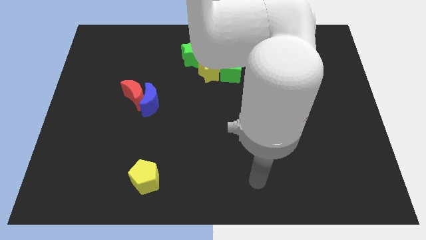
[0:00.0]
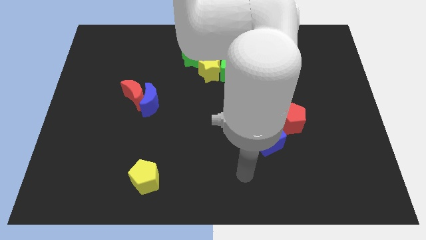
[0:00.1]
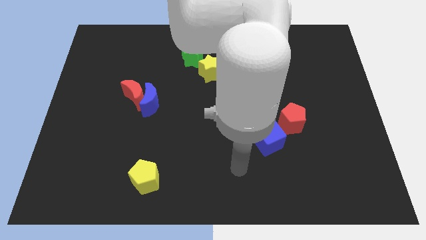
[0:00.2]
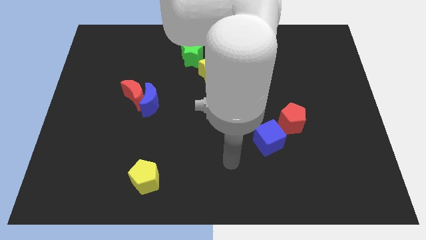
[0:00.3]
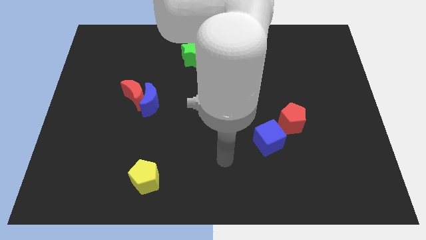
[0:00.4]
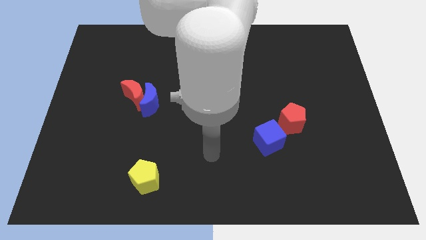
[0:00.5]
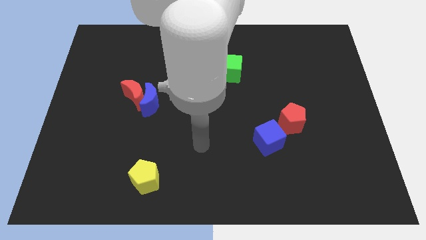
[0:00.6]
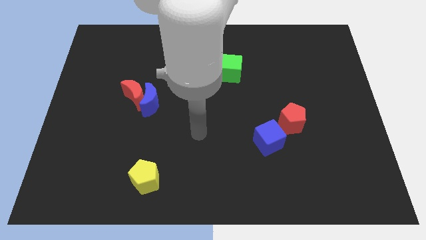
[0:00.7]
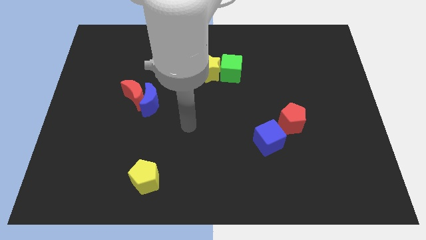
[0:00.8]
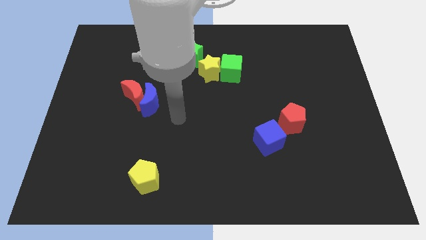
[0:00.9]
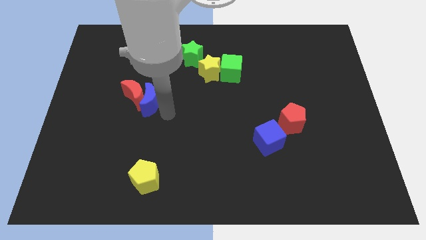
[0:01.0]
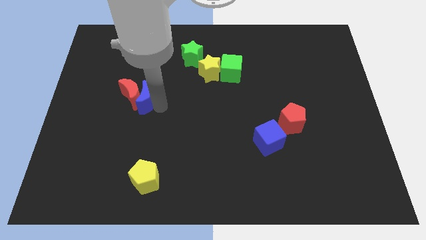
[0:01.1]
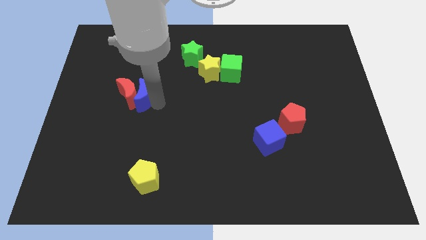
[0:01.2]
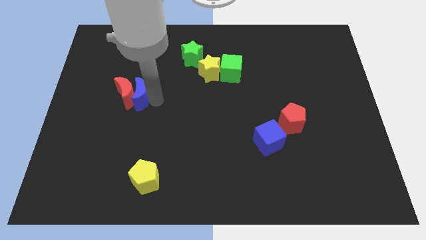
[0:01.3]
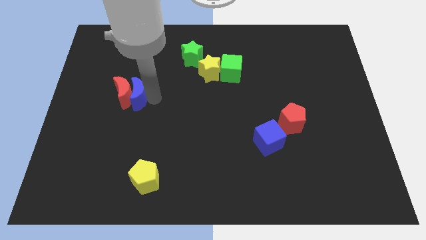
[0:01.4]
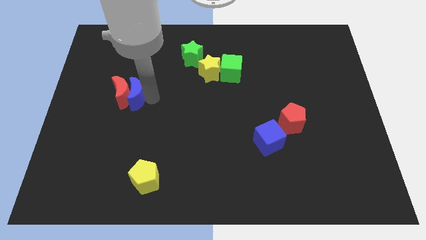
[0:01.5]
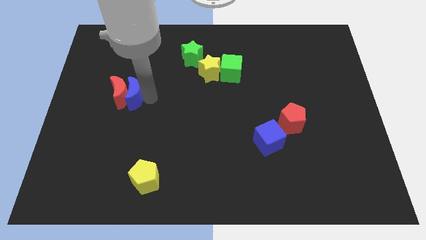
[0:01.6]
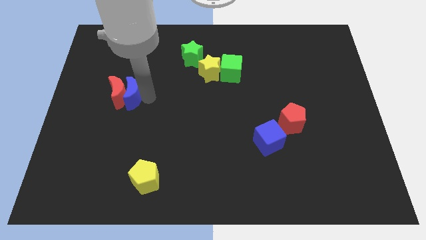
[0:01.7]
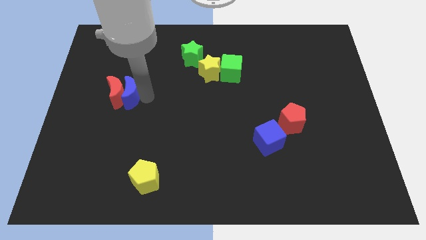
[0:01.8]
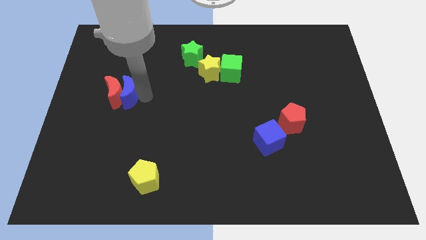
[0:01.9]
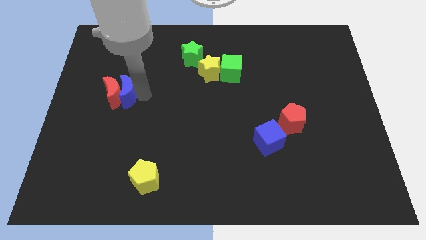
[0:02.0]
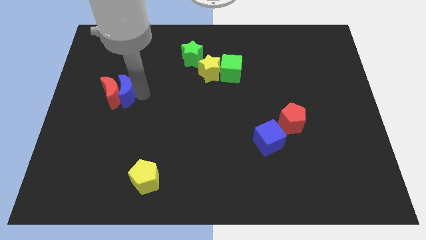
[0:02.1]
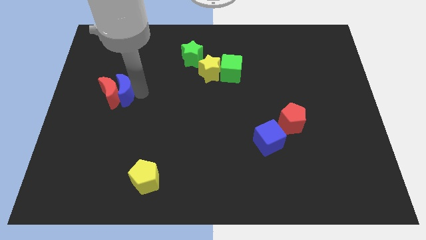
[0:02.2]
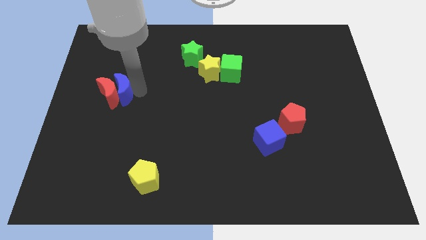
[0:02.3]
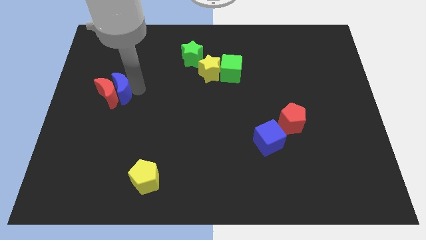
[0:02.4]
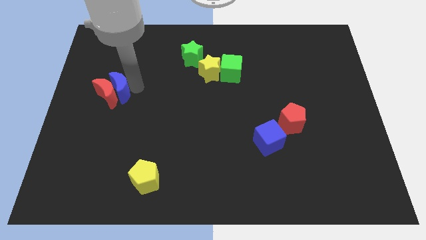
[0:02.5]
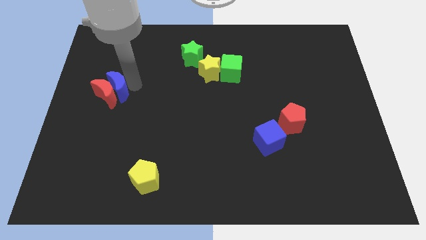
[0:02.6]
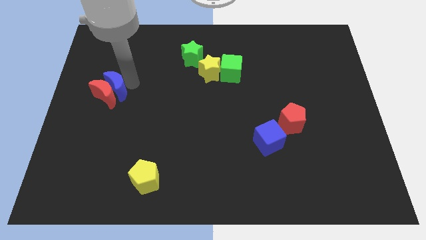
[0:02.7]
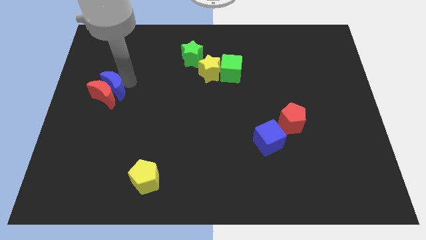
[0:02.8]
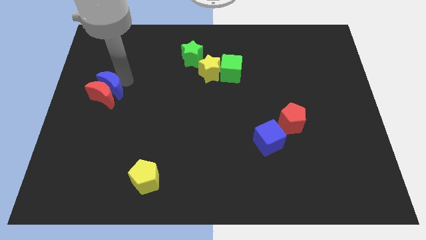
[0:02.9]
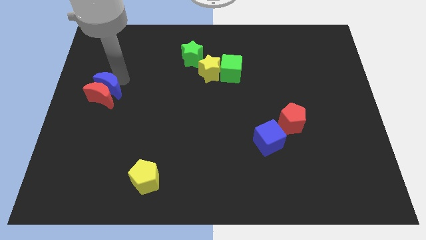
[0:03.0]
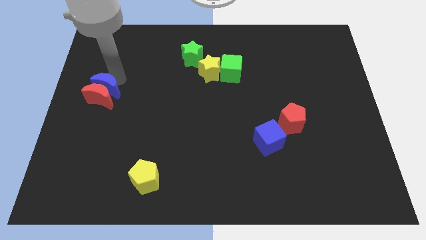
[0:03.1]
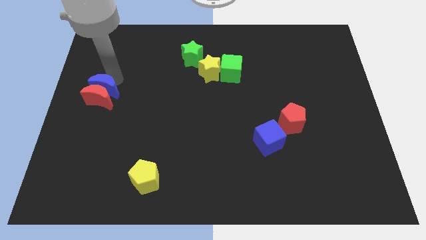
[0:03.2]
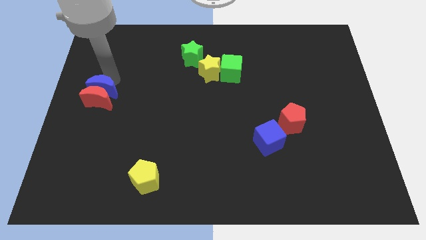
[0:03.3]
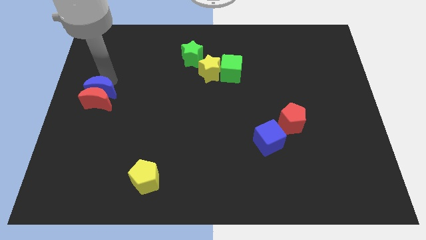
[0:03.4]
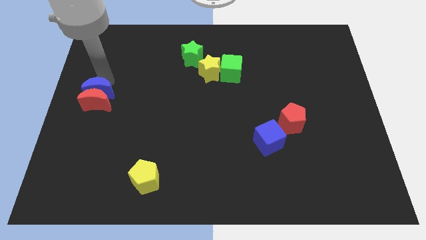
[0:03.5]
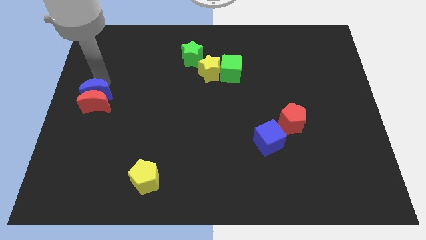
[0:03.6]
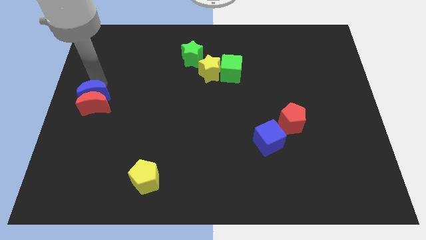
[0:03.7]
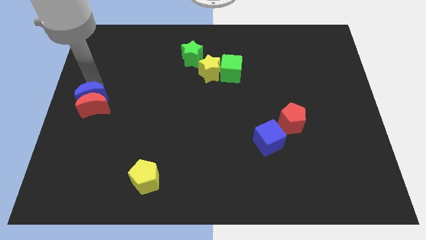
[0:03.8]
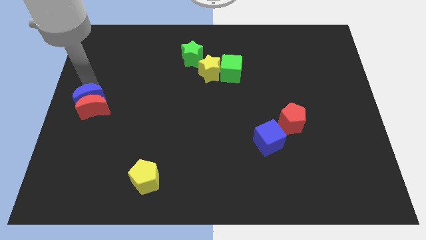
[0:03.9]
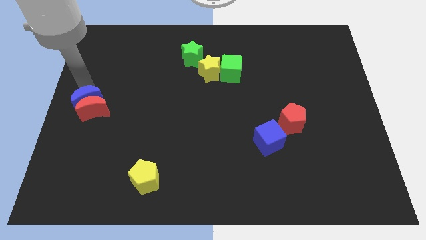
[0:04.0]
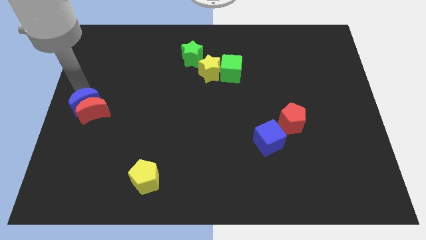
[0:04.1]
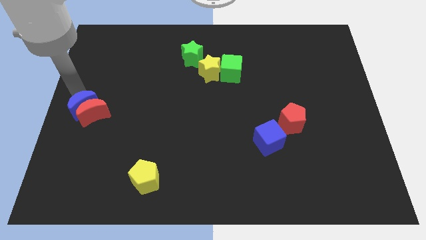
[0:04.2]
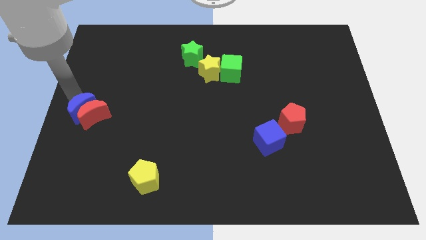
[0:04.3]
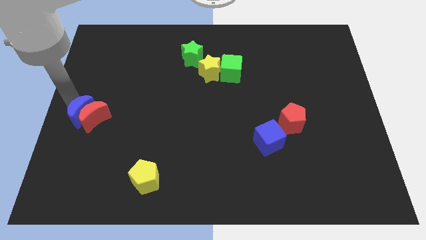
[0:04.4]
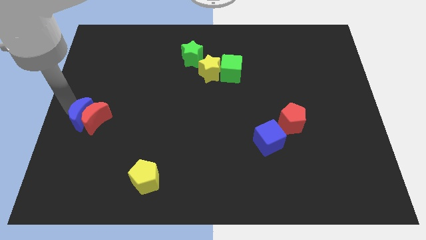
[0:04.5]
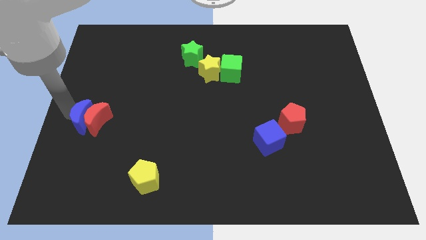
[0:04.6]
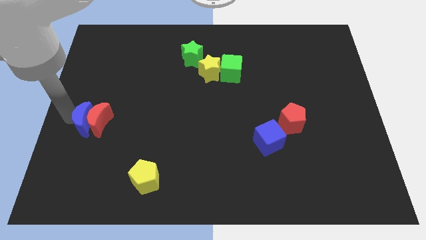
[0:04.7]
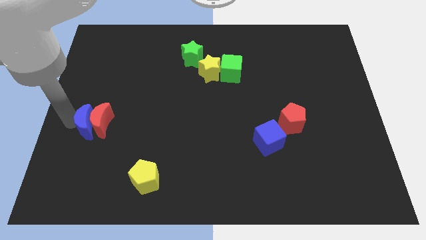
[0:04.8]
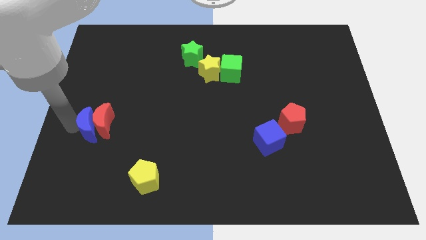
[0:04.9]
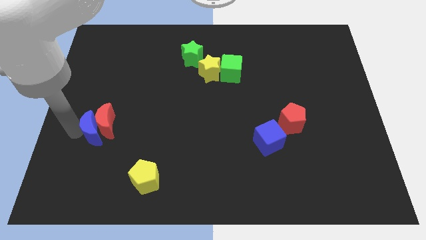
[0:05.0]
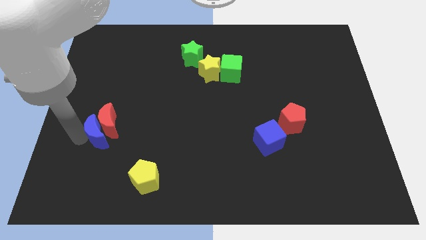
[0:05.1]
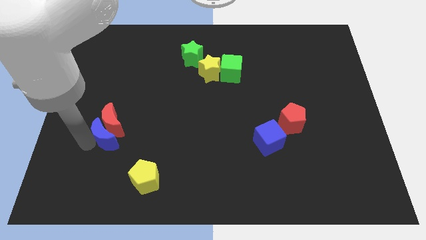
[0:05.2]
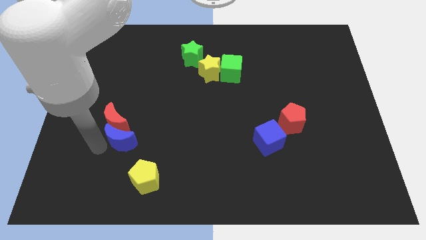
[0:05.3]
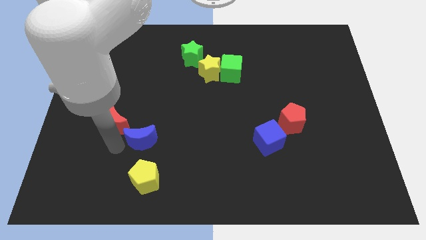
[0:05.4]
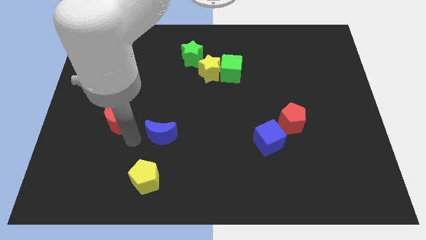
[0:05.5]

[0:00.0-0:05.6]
pull the red moon apart from the blue moon

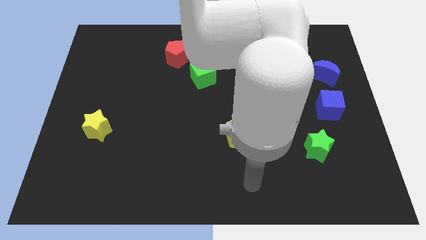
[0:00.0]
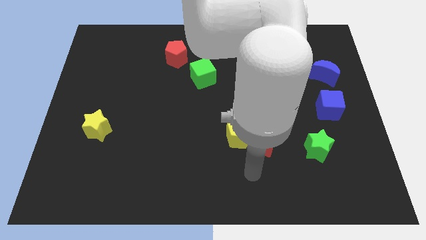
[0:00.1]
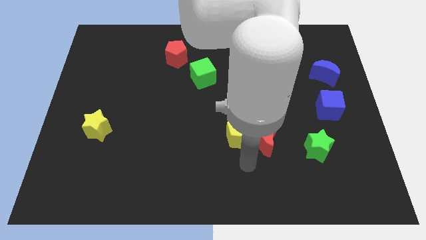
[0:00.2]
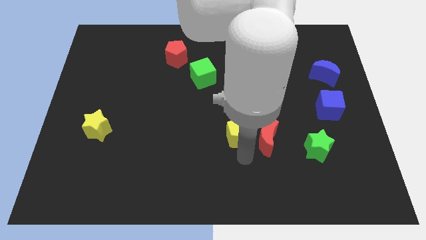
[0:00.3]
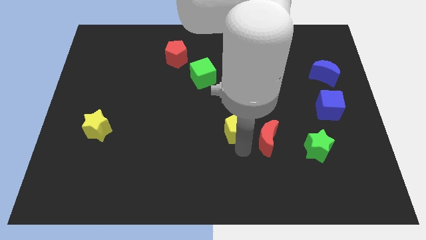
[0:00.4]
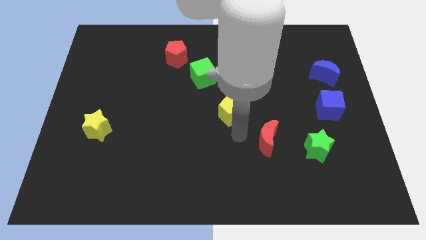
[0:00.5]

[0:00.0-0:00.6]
separate the red moon from the yellow pentagon

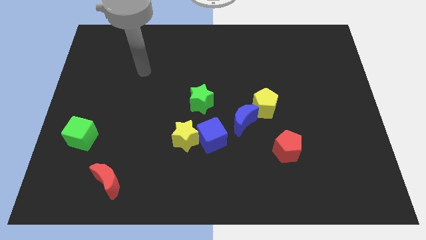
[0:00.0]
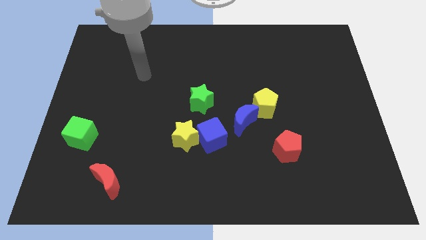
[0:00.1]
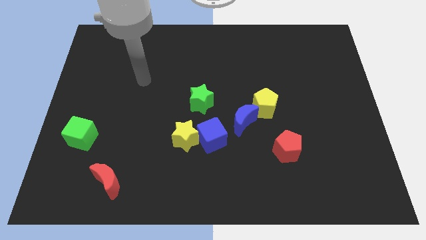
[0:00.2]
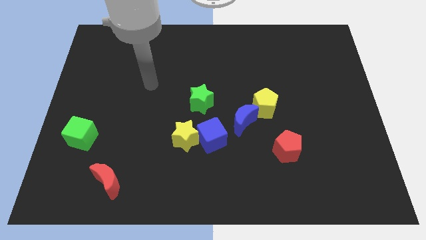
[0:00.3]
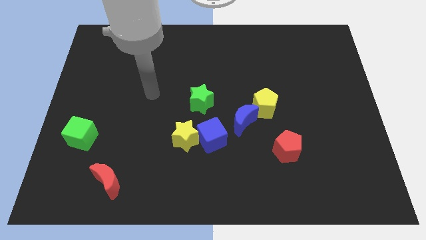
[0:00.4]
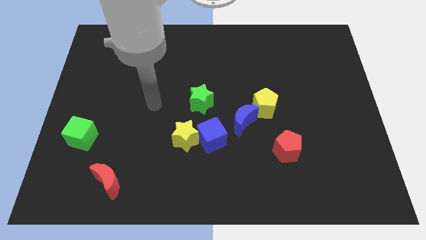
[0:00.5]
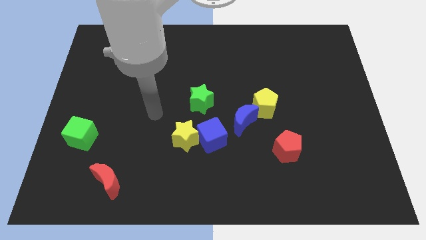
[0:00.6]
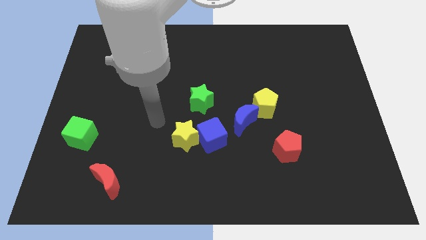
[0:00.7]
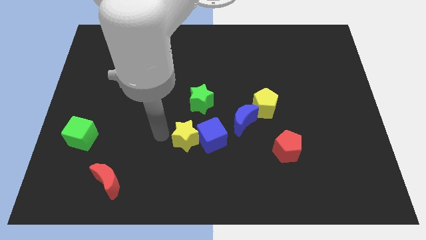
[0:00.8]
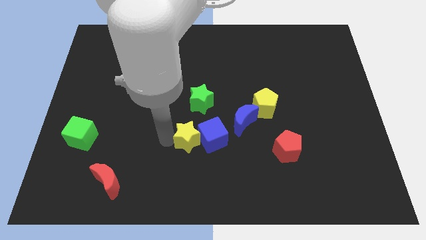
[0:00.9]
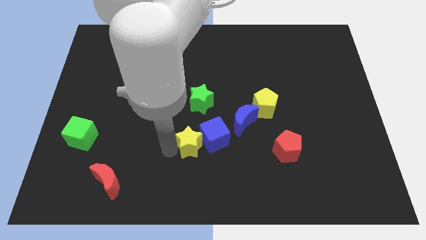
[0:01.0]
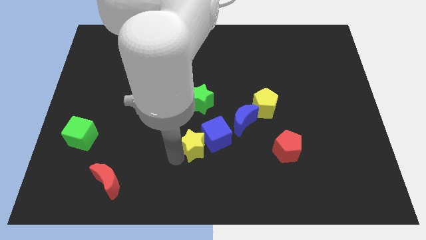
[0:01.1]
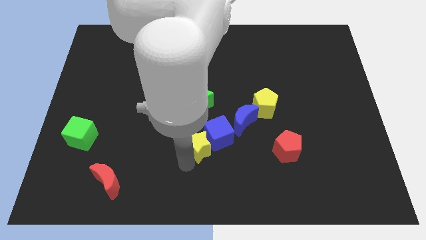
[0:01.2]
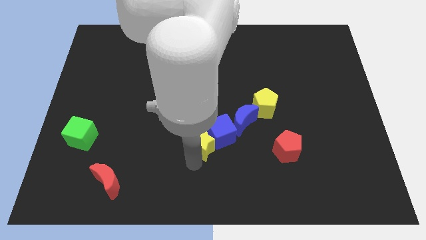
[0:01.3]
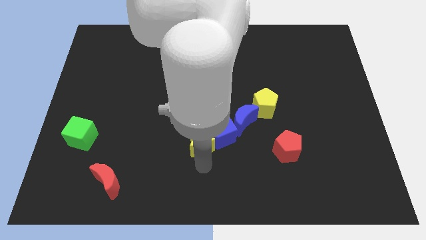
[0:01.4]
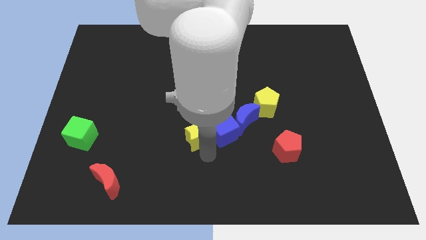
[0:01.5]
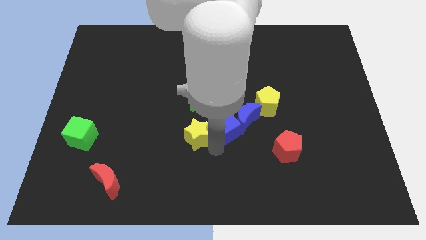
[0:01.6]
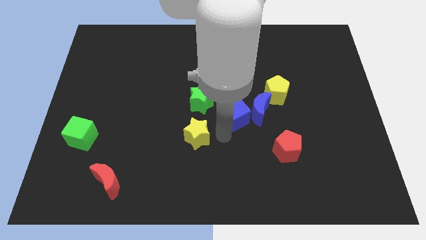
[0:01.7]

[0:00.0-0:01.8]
pull the yellow star apart from the blue cube

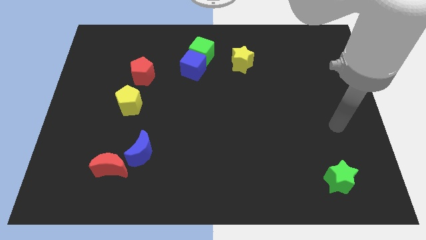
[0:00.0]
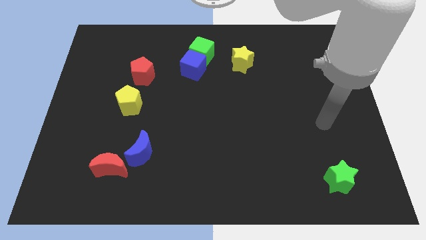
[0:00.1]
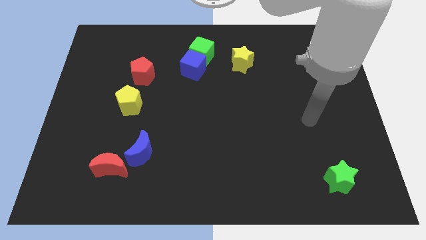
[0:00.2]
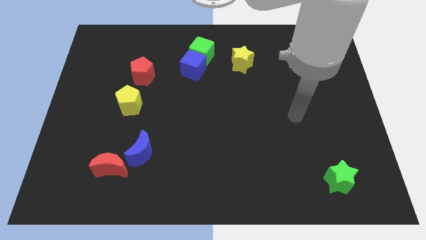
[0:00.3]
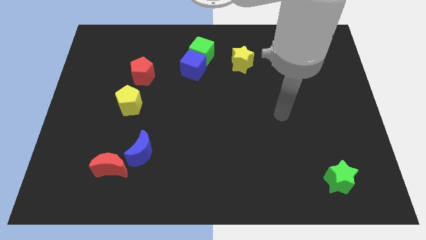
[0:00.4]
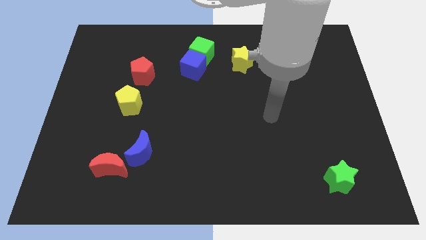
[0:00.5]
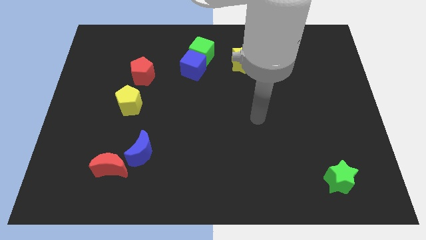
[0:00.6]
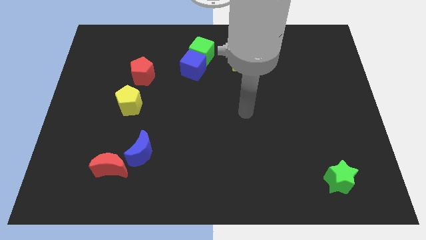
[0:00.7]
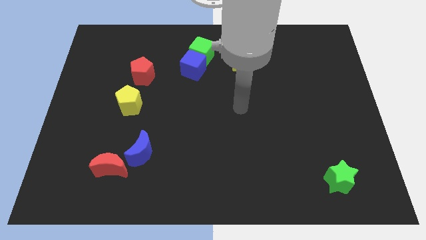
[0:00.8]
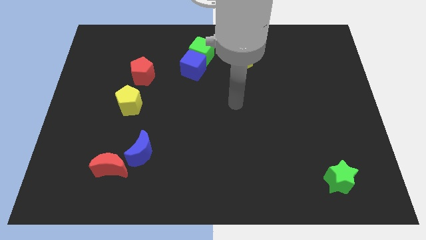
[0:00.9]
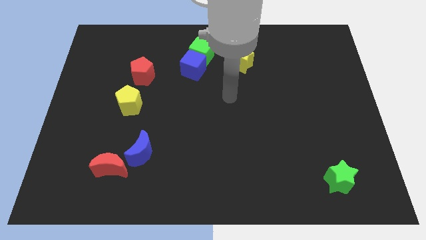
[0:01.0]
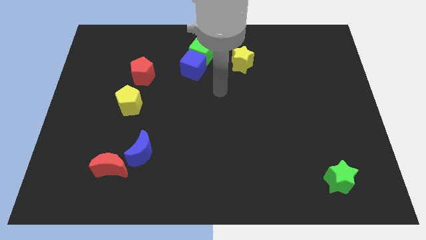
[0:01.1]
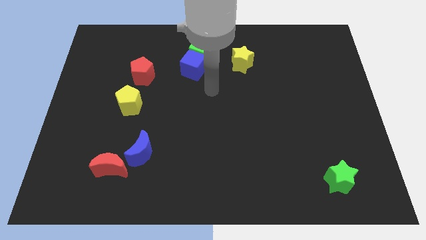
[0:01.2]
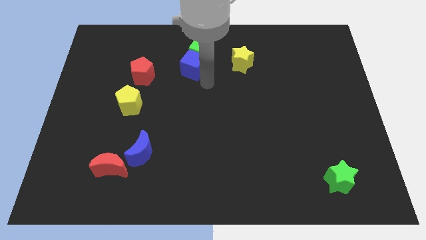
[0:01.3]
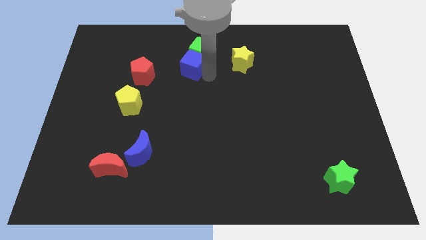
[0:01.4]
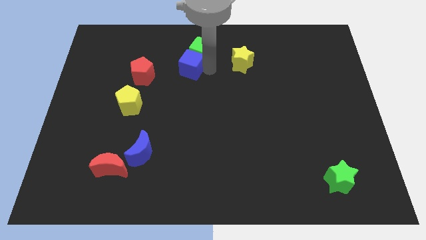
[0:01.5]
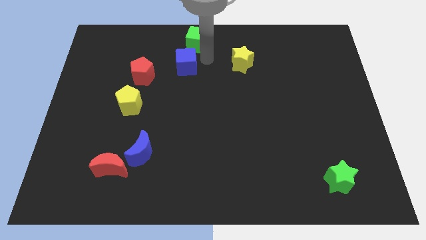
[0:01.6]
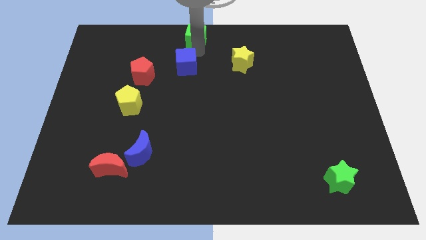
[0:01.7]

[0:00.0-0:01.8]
move the blue cube away from the green cube
